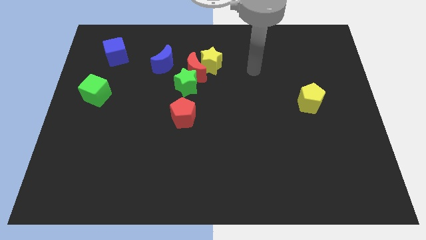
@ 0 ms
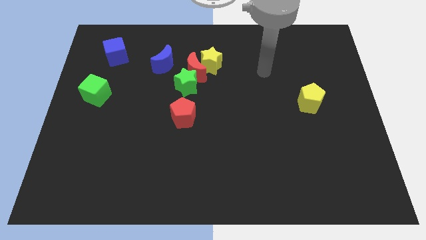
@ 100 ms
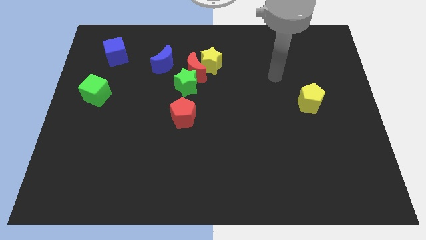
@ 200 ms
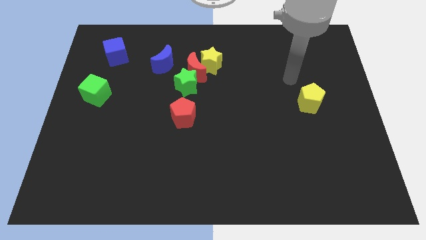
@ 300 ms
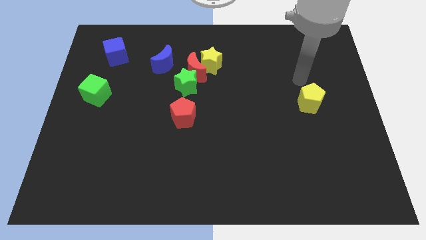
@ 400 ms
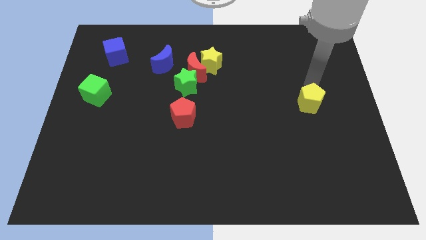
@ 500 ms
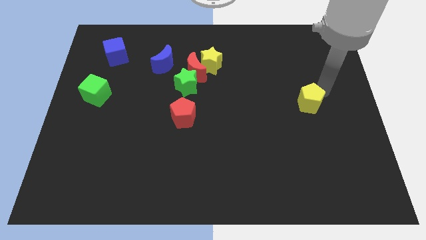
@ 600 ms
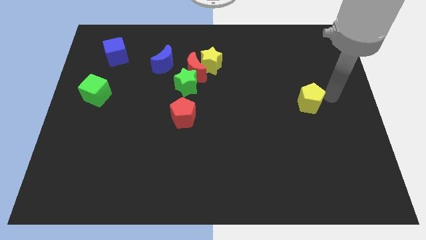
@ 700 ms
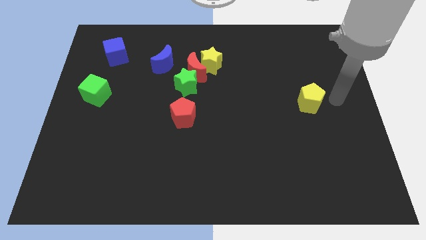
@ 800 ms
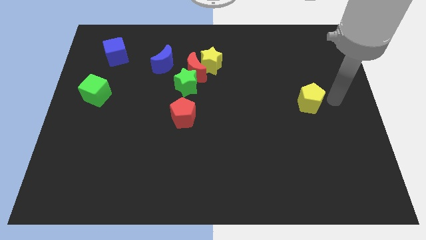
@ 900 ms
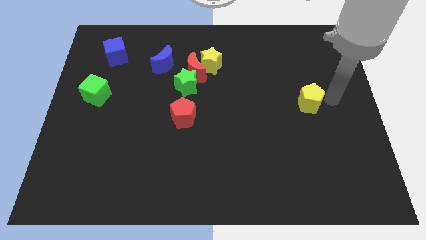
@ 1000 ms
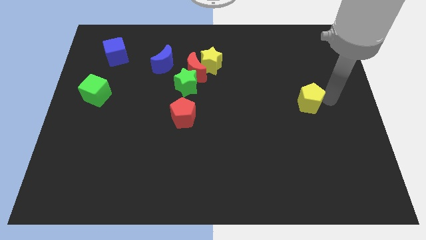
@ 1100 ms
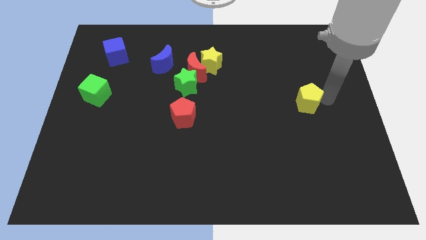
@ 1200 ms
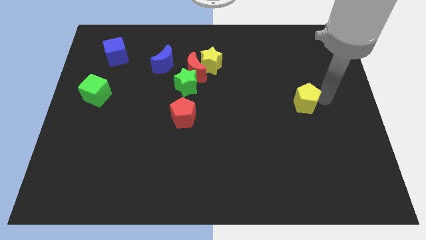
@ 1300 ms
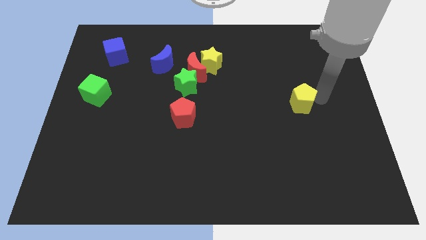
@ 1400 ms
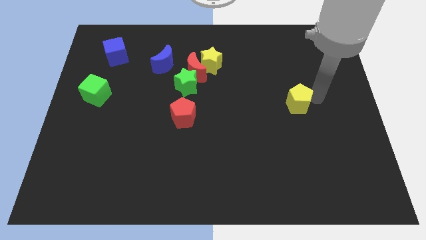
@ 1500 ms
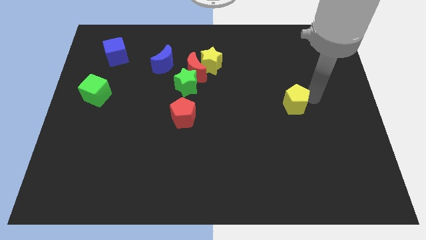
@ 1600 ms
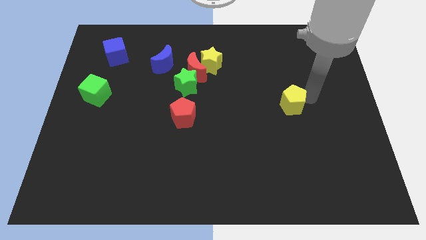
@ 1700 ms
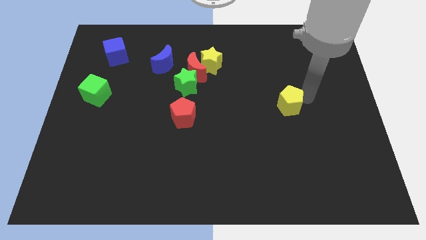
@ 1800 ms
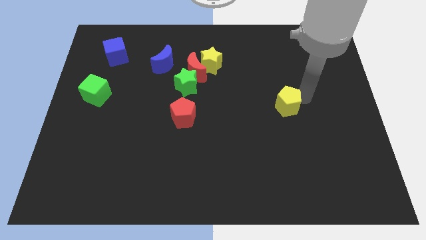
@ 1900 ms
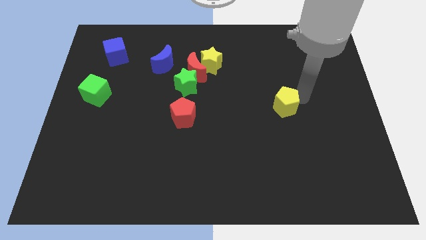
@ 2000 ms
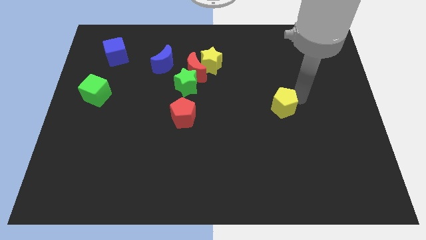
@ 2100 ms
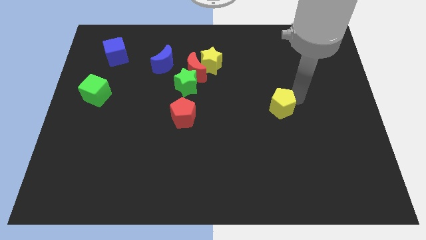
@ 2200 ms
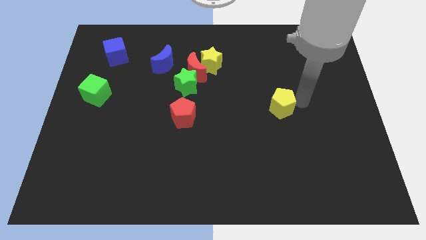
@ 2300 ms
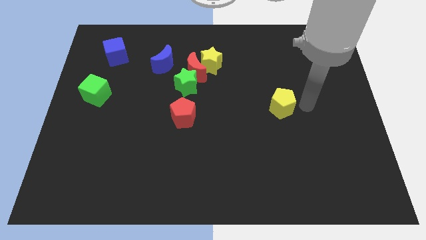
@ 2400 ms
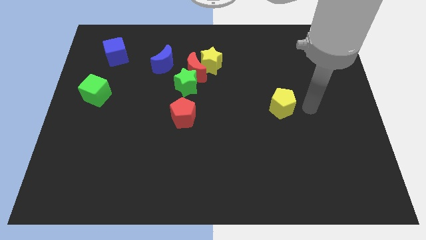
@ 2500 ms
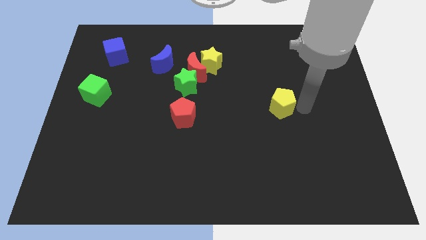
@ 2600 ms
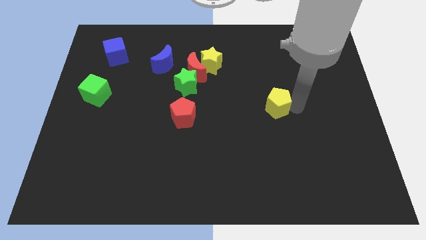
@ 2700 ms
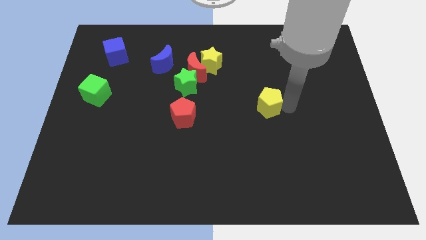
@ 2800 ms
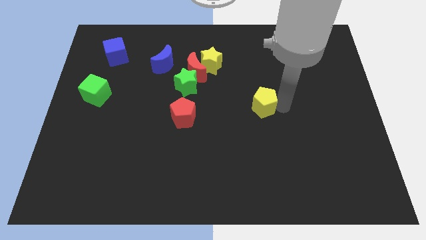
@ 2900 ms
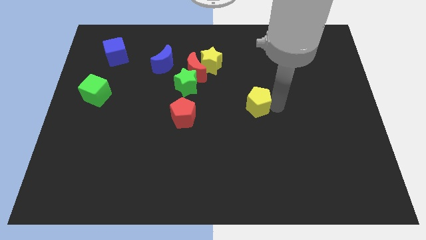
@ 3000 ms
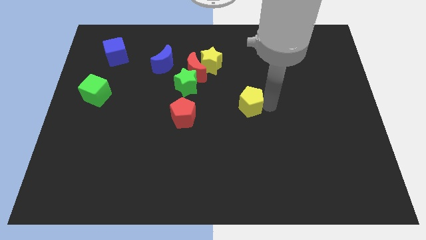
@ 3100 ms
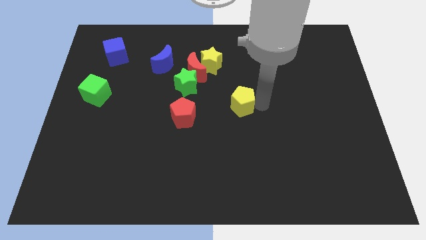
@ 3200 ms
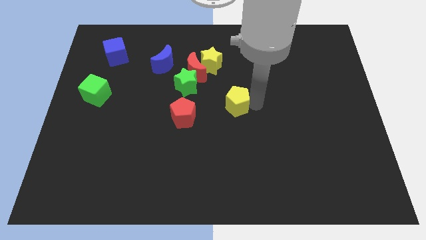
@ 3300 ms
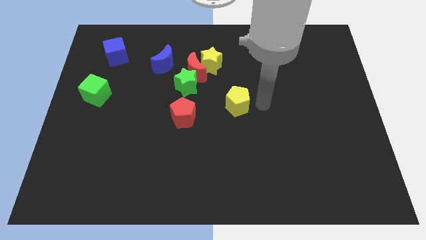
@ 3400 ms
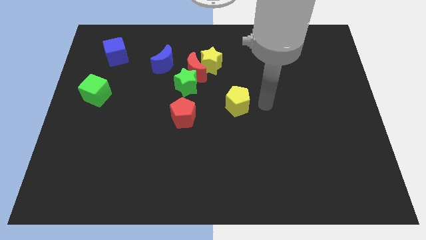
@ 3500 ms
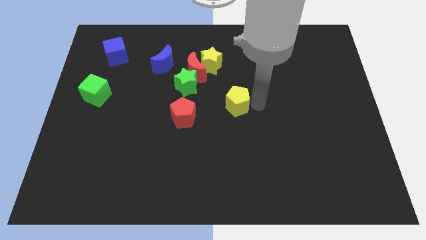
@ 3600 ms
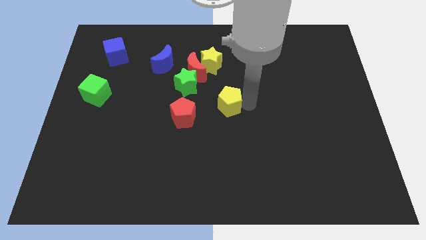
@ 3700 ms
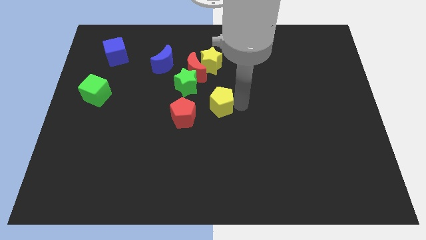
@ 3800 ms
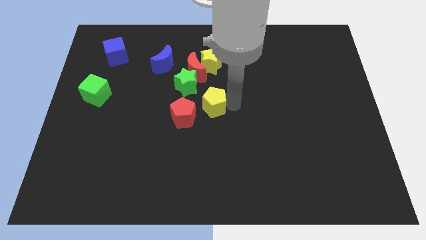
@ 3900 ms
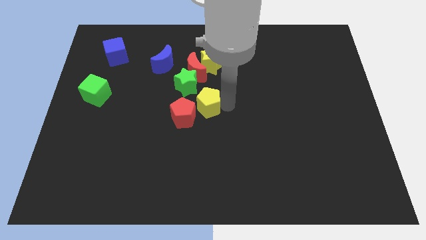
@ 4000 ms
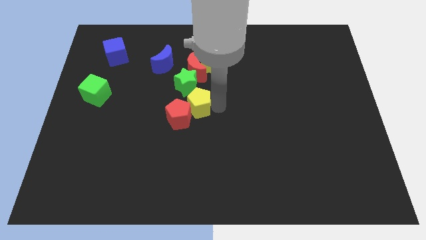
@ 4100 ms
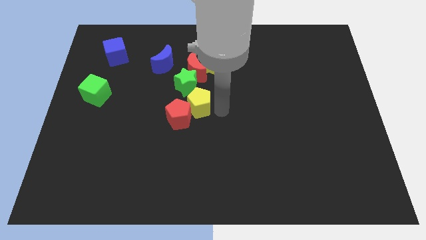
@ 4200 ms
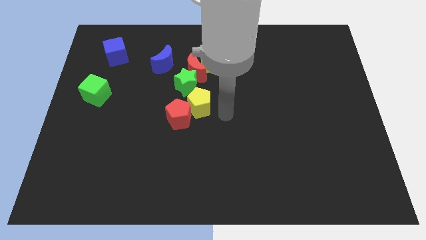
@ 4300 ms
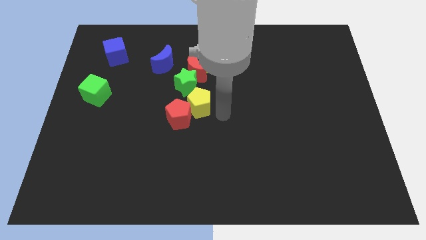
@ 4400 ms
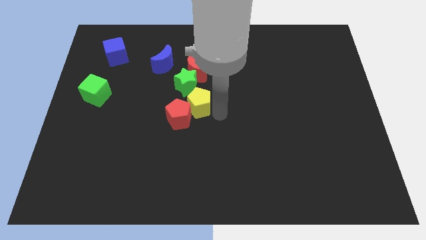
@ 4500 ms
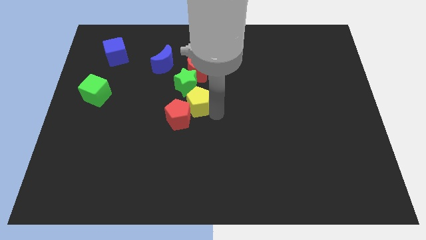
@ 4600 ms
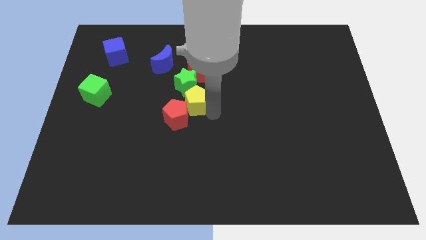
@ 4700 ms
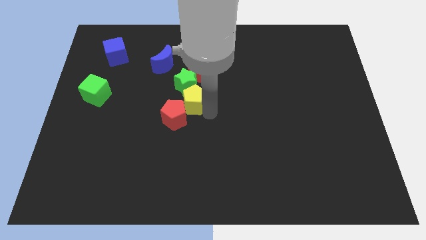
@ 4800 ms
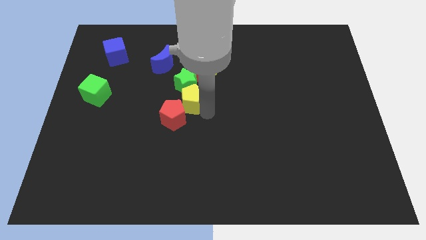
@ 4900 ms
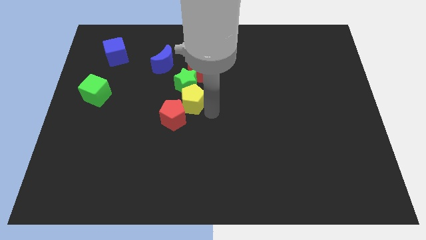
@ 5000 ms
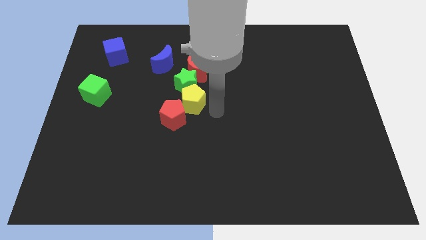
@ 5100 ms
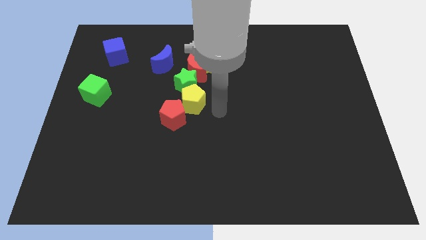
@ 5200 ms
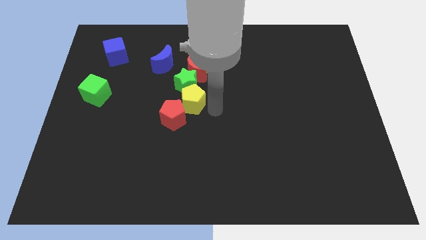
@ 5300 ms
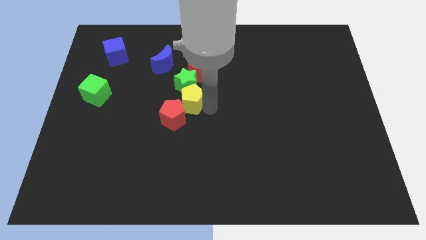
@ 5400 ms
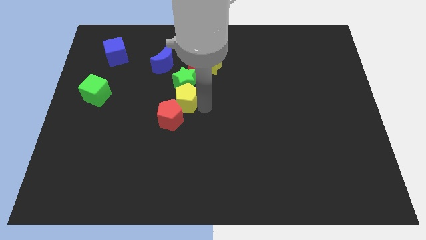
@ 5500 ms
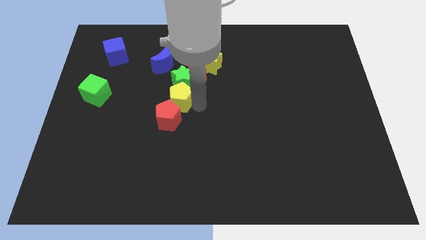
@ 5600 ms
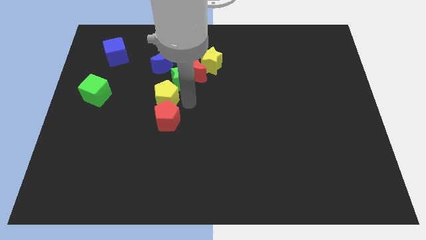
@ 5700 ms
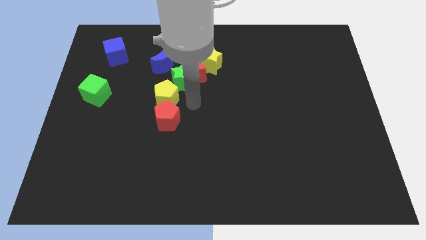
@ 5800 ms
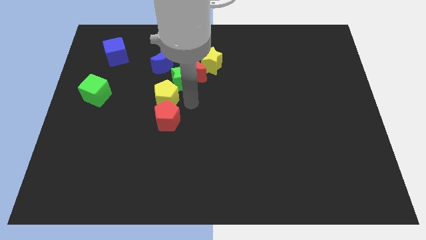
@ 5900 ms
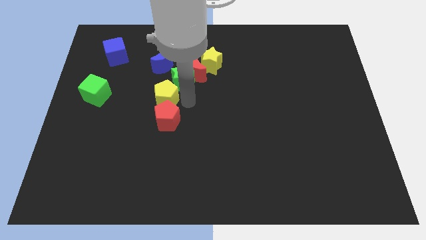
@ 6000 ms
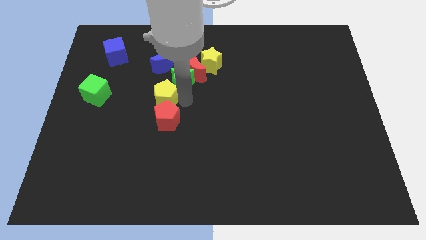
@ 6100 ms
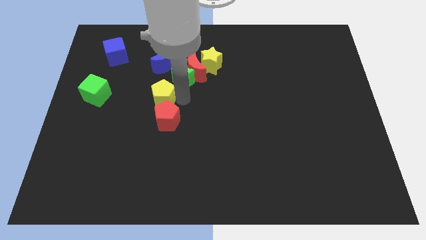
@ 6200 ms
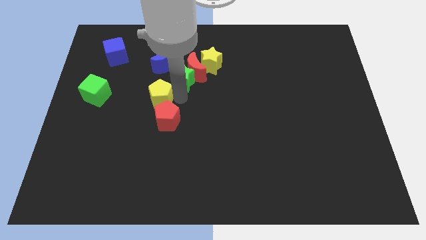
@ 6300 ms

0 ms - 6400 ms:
put the yellow pentagon just right of the green cube
